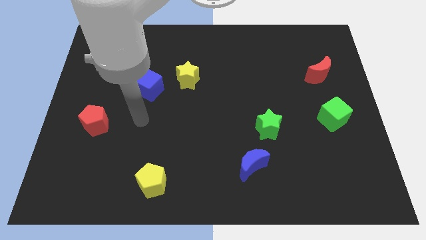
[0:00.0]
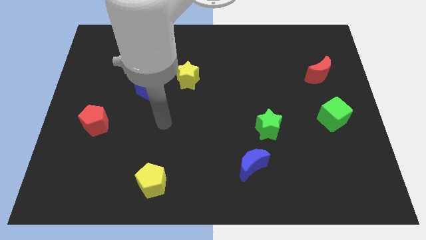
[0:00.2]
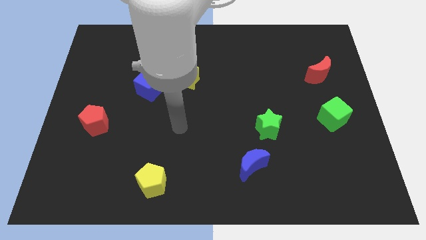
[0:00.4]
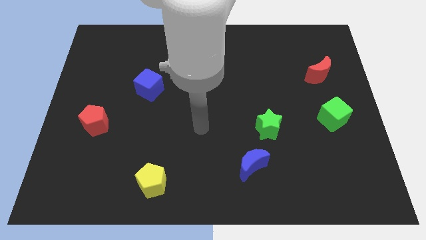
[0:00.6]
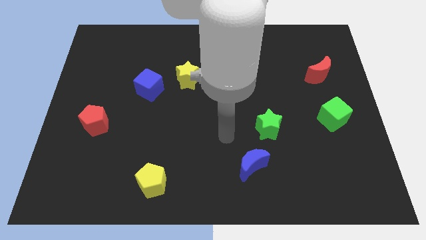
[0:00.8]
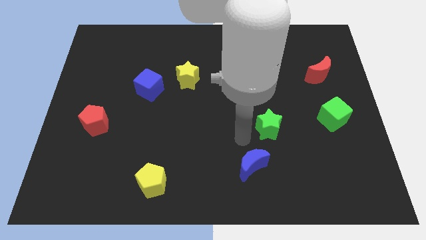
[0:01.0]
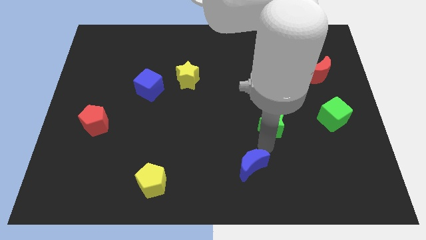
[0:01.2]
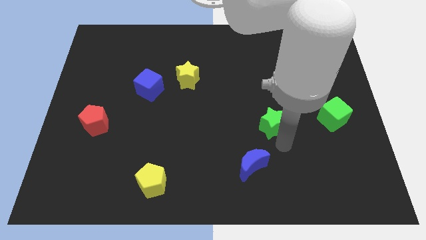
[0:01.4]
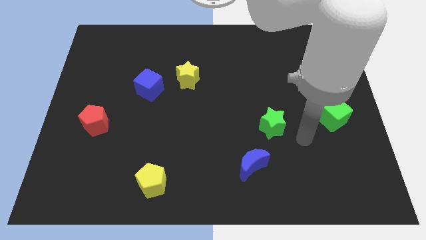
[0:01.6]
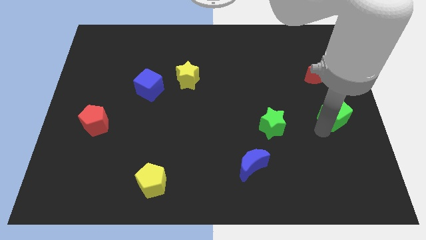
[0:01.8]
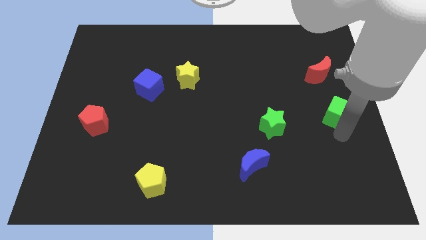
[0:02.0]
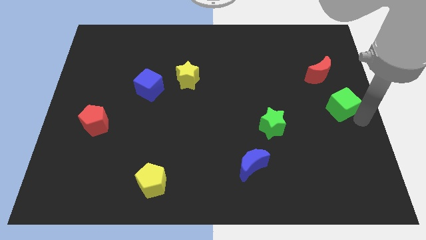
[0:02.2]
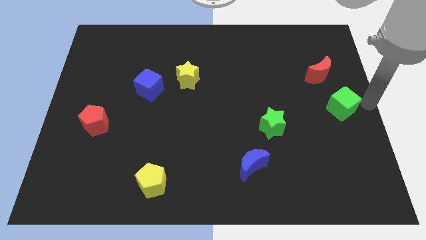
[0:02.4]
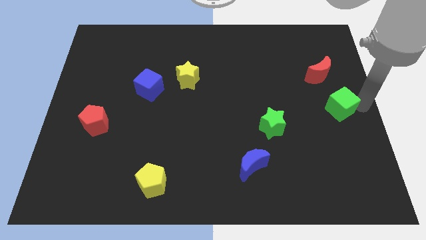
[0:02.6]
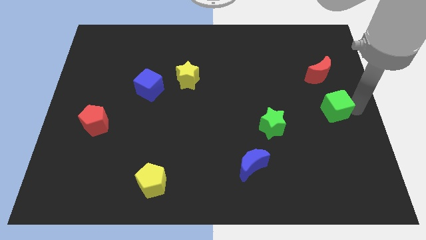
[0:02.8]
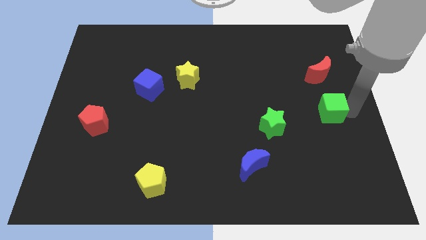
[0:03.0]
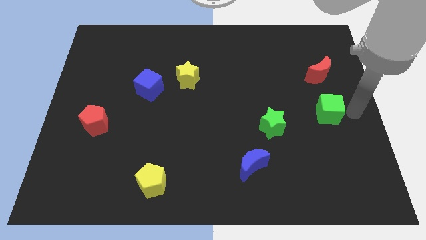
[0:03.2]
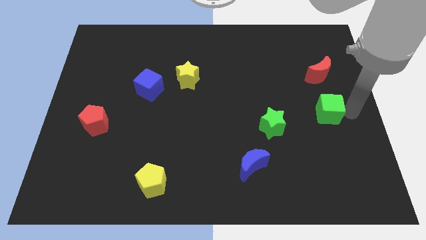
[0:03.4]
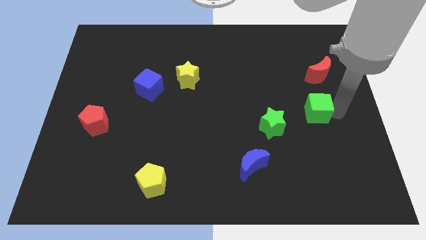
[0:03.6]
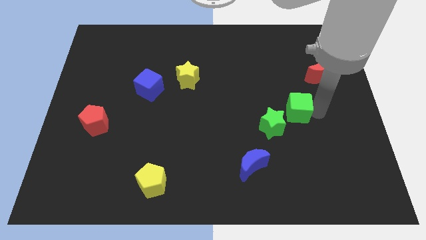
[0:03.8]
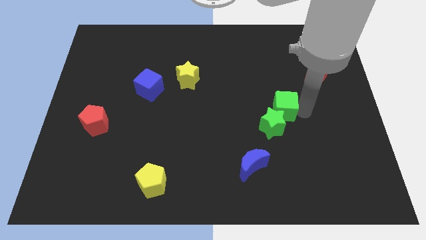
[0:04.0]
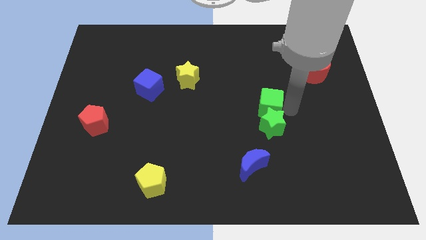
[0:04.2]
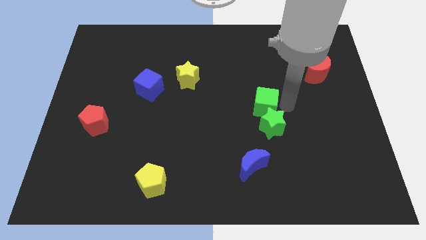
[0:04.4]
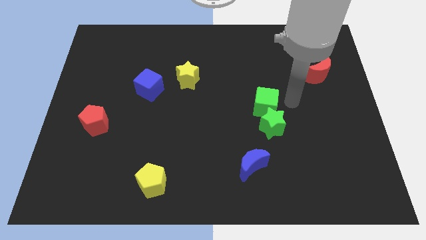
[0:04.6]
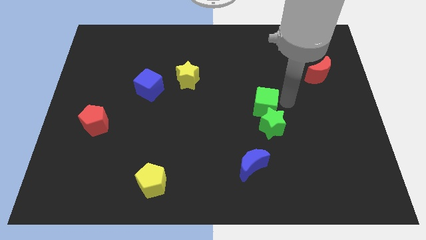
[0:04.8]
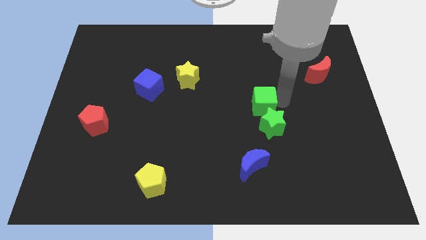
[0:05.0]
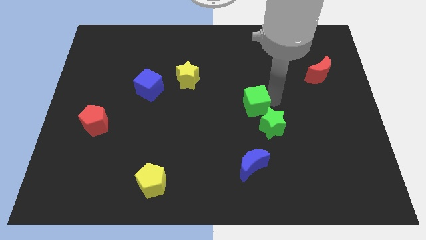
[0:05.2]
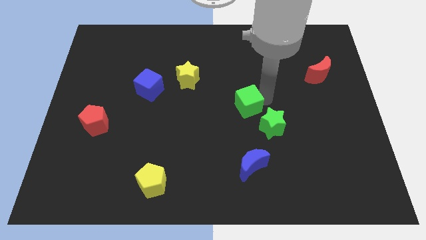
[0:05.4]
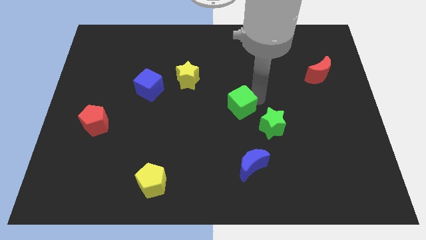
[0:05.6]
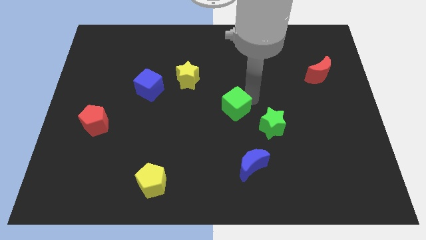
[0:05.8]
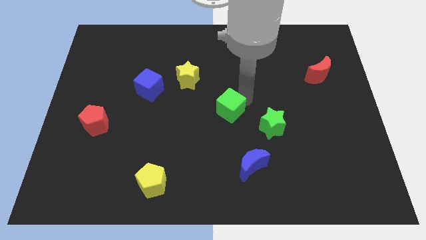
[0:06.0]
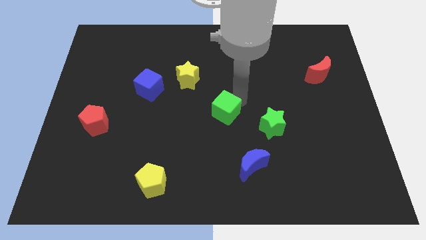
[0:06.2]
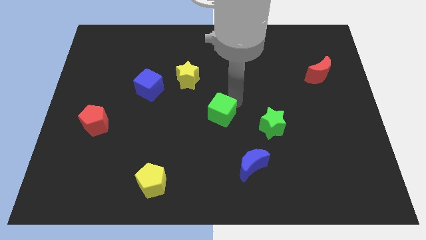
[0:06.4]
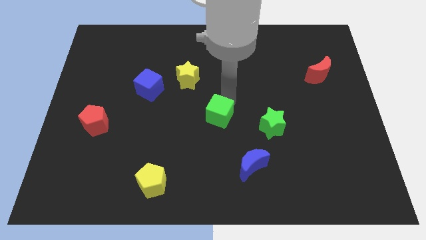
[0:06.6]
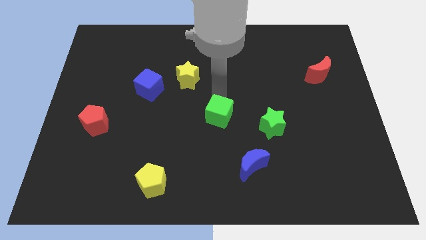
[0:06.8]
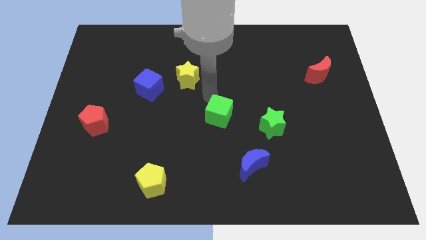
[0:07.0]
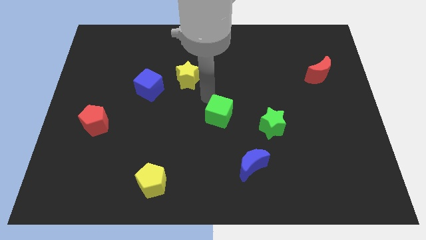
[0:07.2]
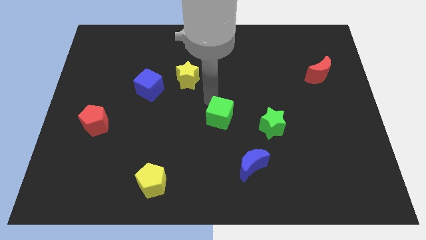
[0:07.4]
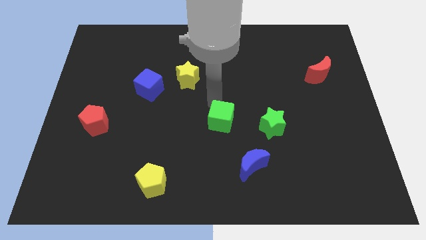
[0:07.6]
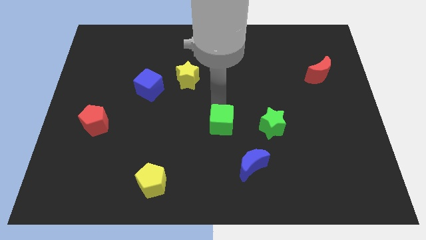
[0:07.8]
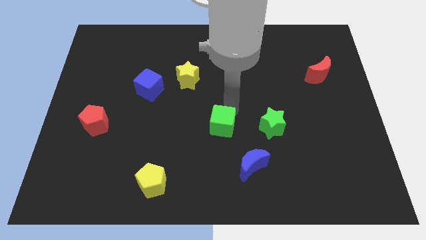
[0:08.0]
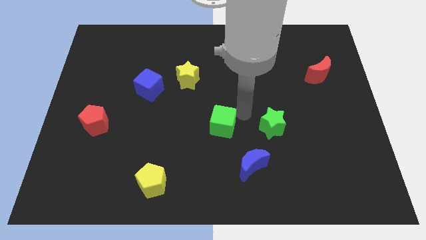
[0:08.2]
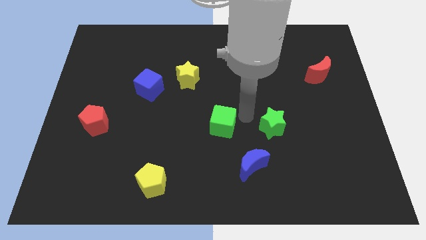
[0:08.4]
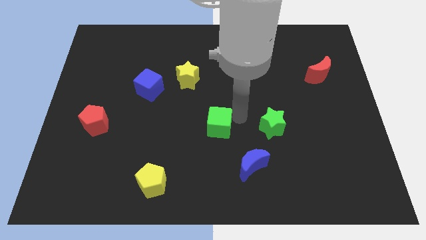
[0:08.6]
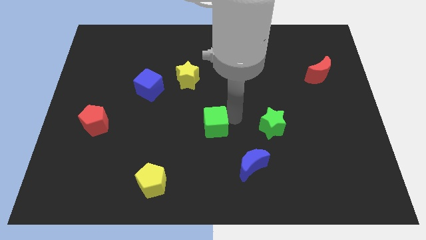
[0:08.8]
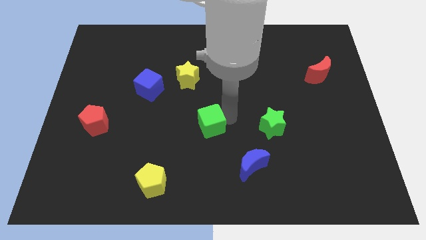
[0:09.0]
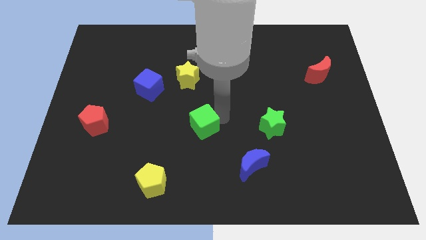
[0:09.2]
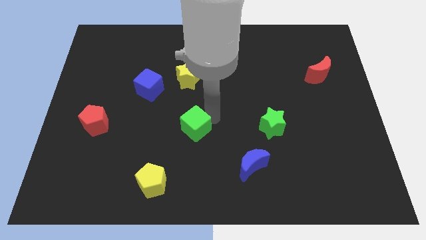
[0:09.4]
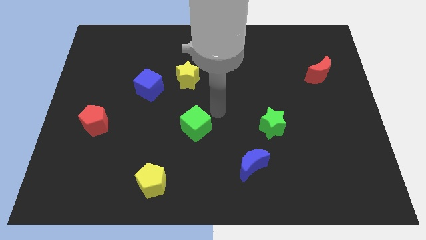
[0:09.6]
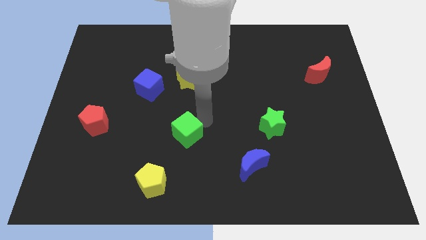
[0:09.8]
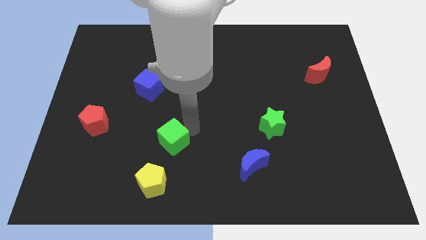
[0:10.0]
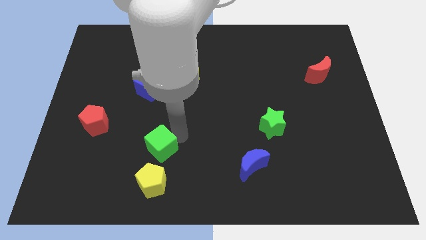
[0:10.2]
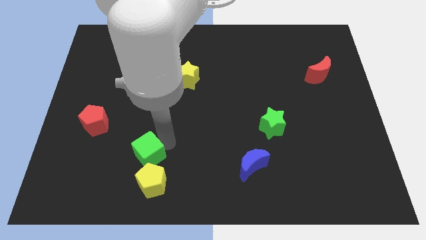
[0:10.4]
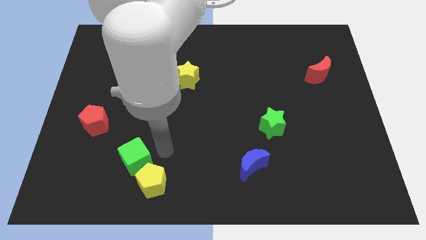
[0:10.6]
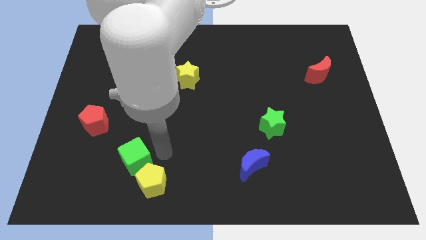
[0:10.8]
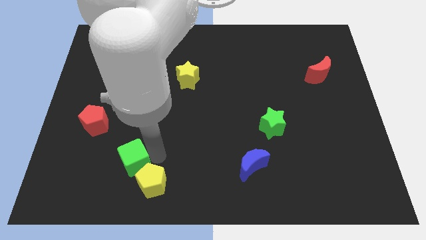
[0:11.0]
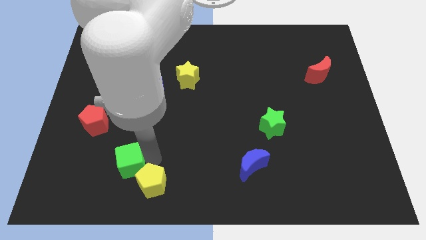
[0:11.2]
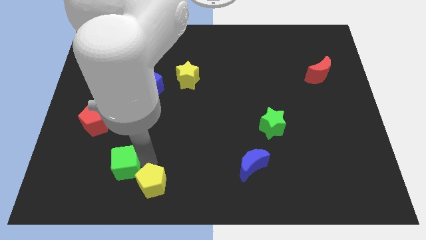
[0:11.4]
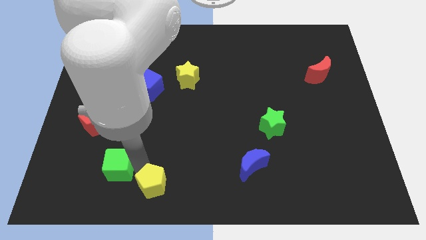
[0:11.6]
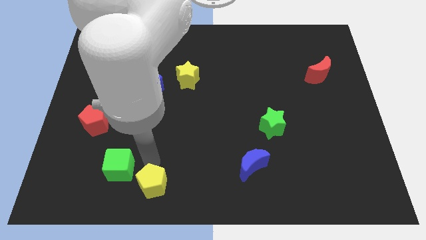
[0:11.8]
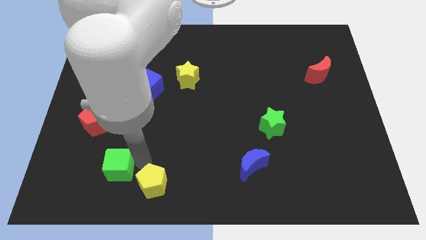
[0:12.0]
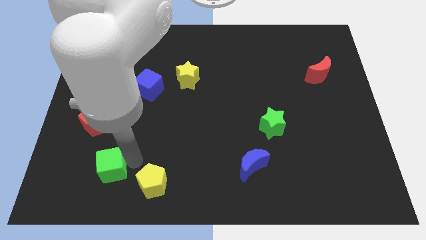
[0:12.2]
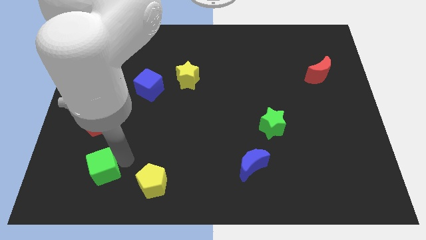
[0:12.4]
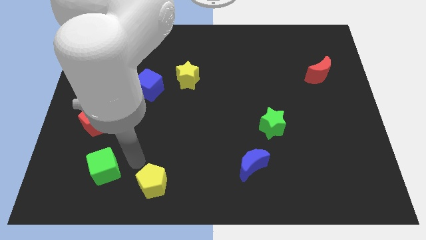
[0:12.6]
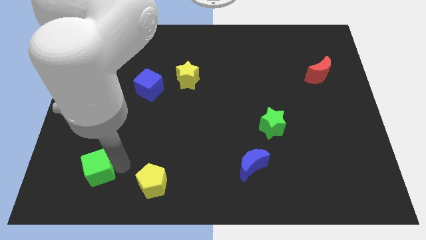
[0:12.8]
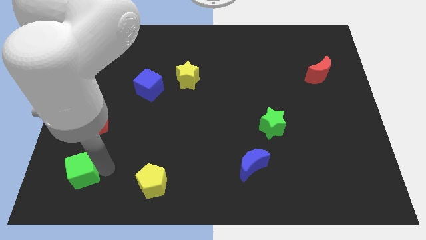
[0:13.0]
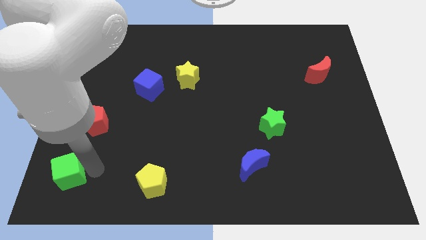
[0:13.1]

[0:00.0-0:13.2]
put the green cube to the bottom left corner

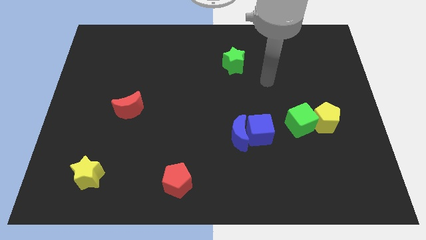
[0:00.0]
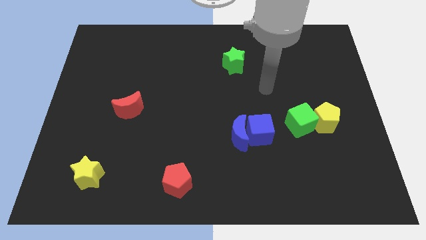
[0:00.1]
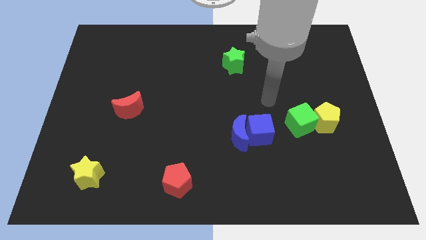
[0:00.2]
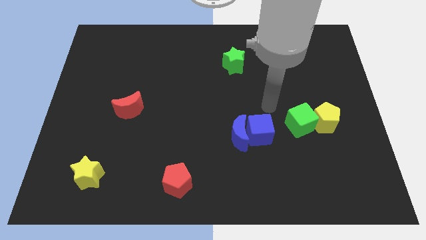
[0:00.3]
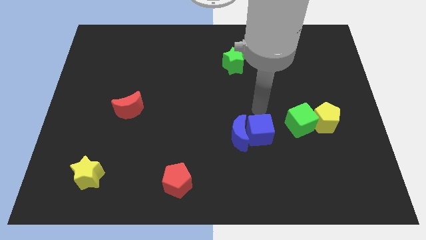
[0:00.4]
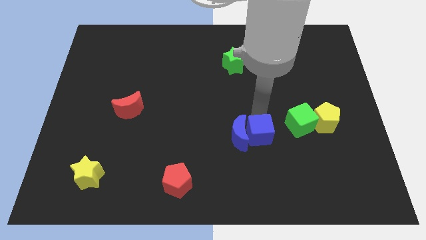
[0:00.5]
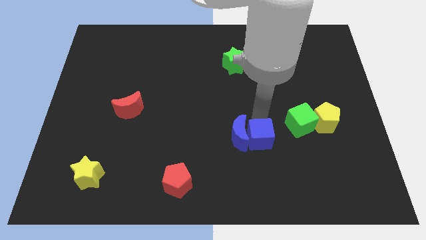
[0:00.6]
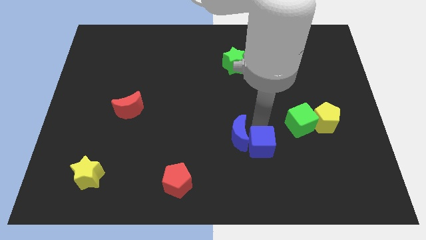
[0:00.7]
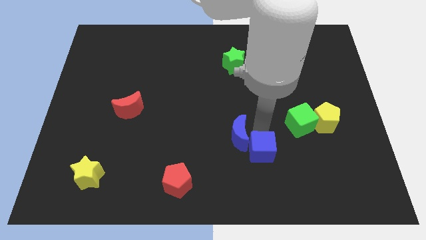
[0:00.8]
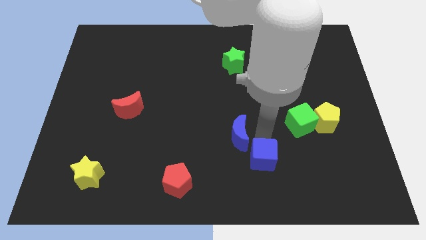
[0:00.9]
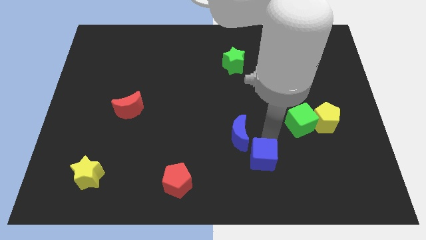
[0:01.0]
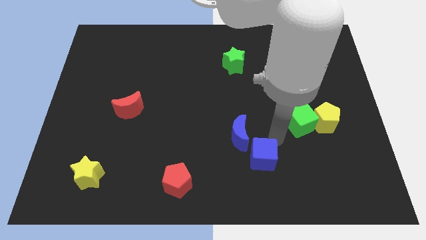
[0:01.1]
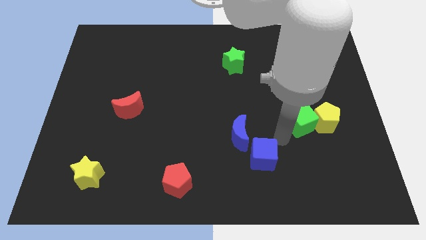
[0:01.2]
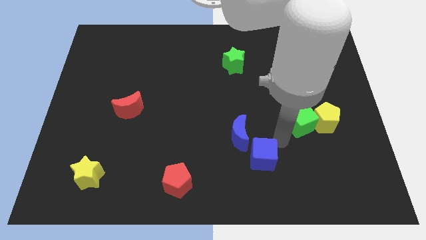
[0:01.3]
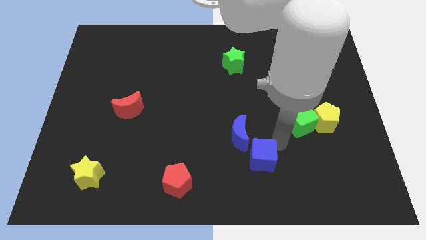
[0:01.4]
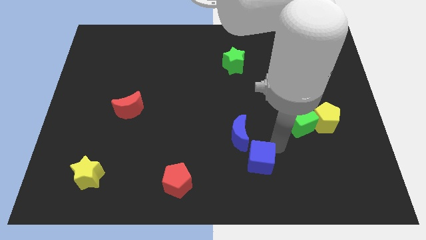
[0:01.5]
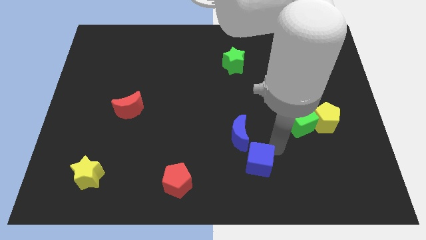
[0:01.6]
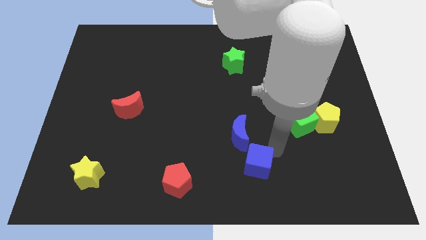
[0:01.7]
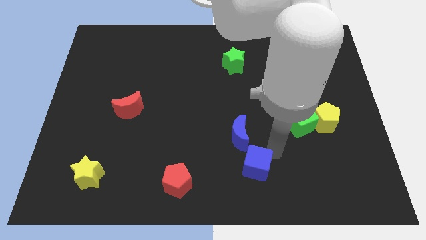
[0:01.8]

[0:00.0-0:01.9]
move the blue cube to the bottom side

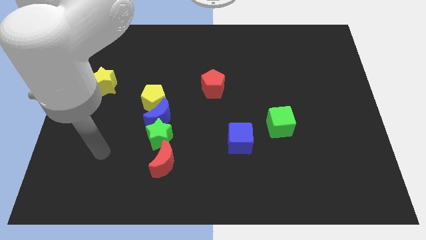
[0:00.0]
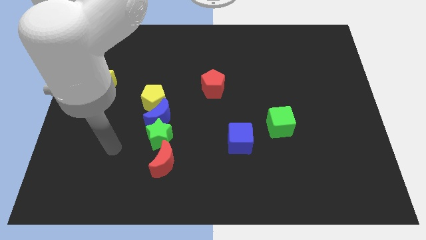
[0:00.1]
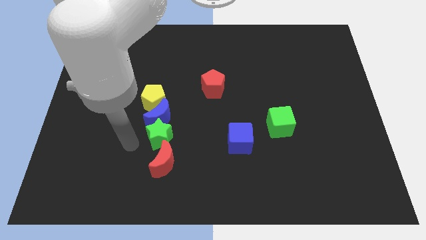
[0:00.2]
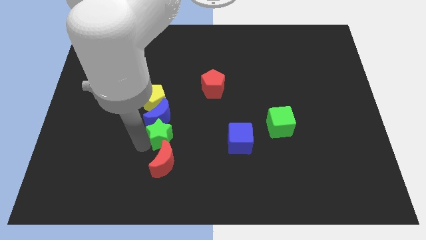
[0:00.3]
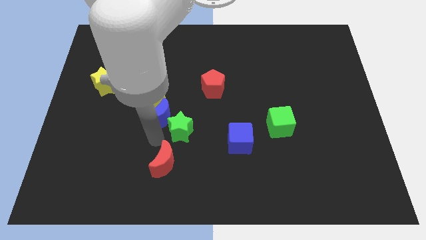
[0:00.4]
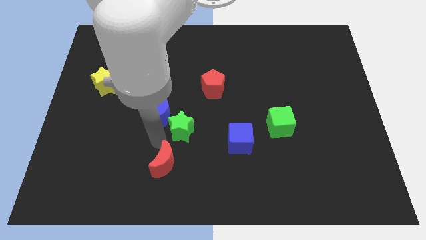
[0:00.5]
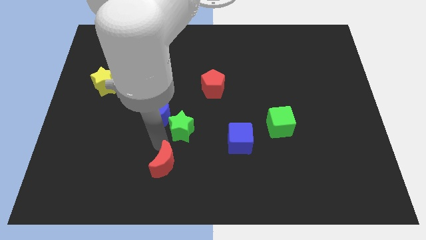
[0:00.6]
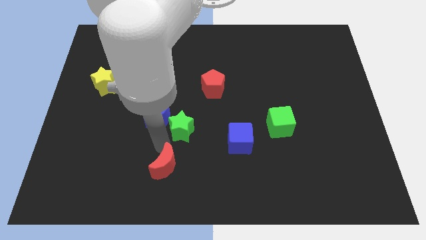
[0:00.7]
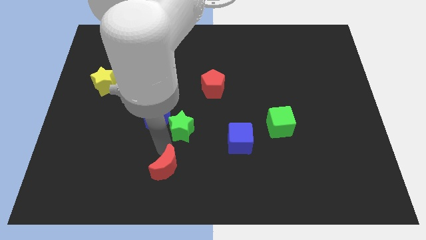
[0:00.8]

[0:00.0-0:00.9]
slide the red moon to the bottom side
